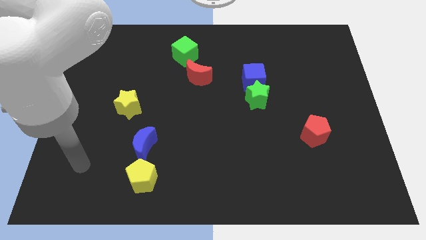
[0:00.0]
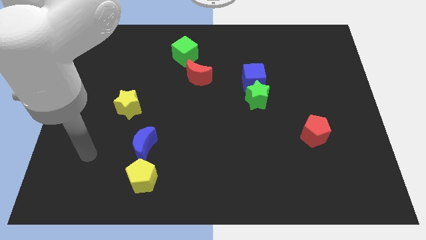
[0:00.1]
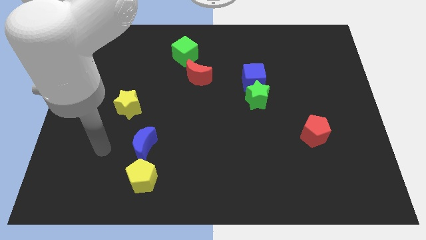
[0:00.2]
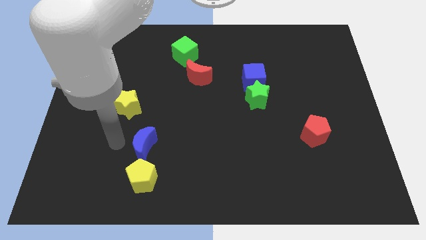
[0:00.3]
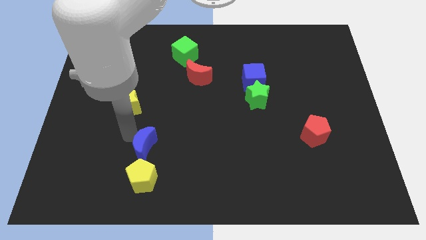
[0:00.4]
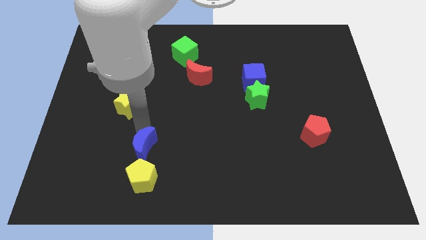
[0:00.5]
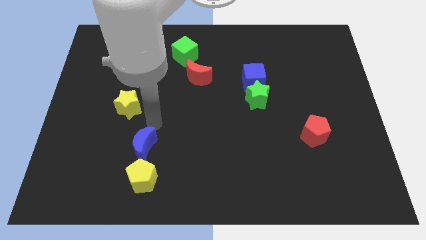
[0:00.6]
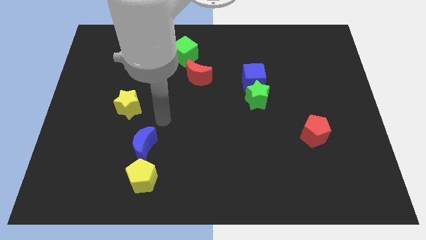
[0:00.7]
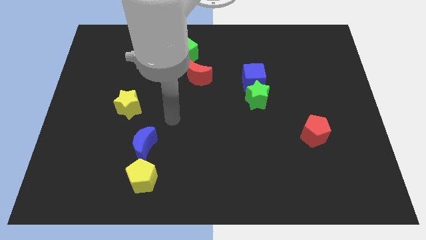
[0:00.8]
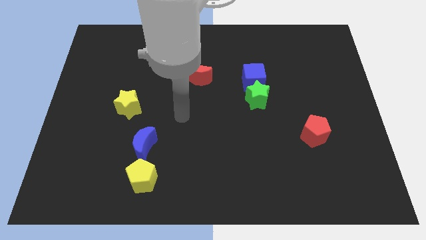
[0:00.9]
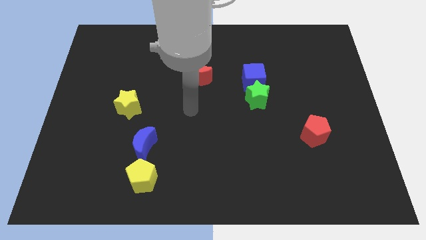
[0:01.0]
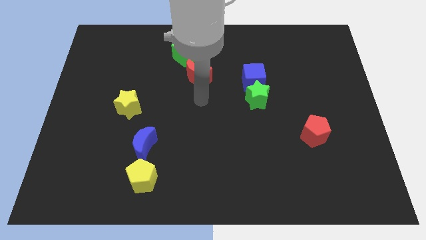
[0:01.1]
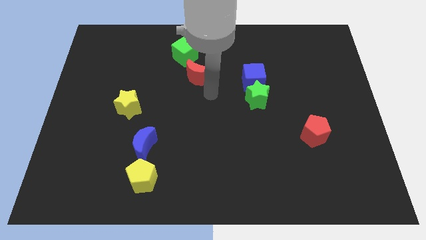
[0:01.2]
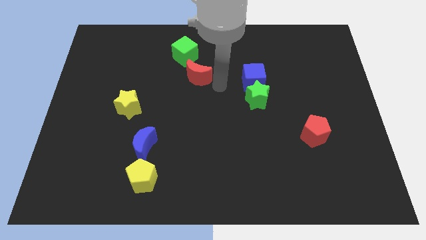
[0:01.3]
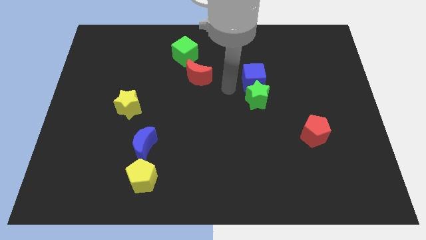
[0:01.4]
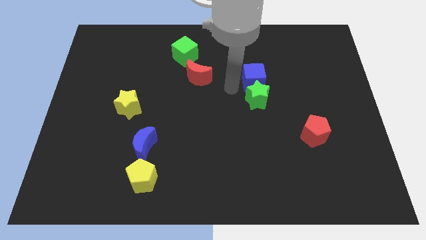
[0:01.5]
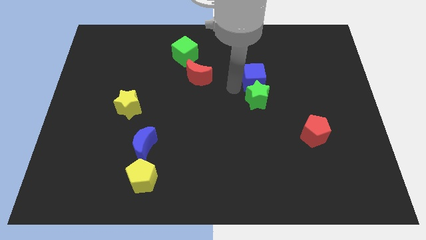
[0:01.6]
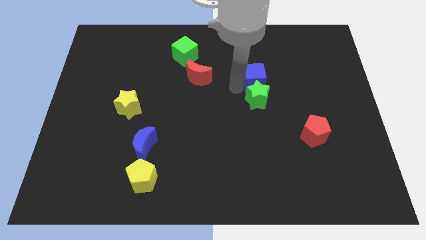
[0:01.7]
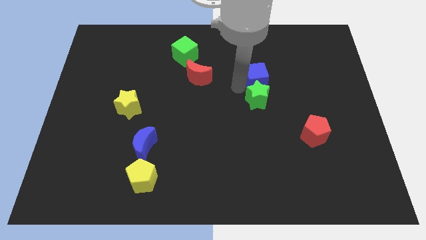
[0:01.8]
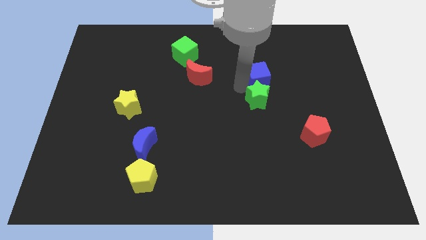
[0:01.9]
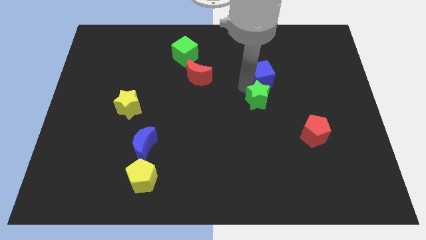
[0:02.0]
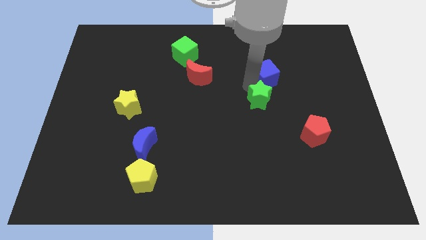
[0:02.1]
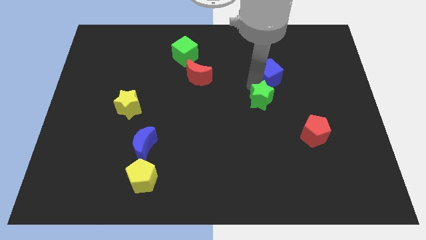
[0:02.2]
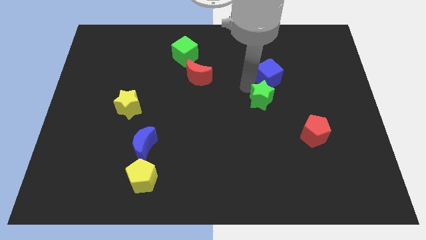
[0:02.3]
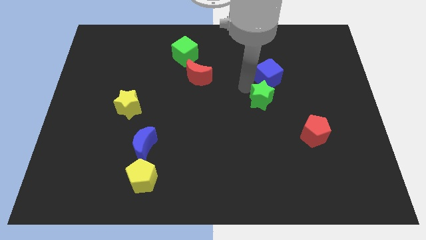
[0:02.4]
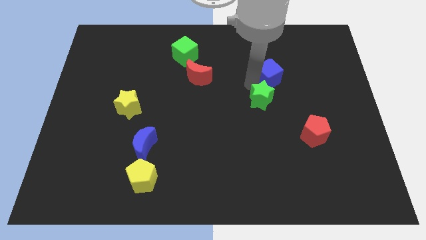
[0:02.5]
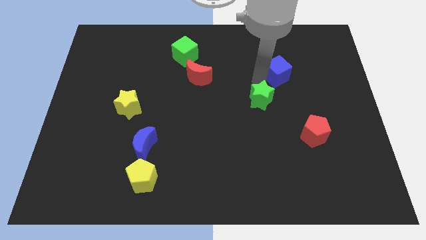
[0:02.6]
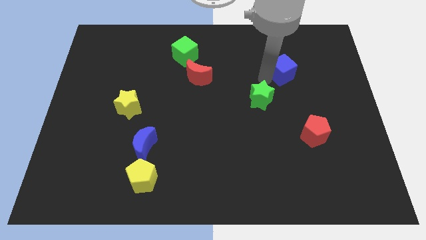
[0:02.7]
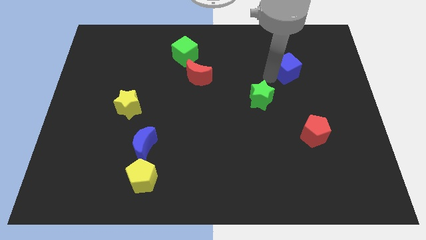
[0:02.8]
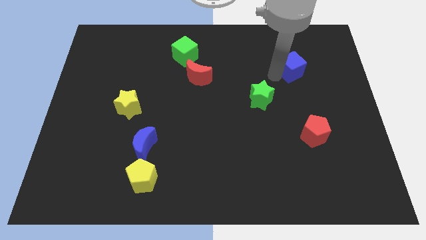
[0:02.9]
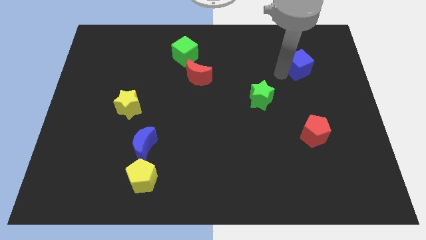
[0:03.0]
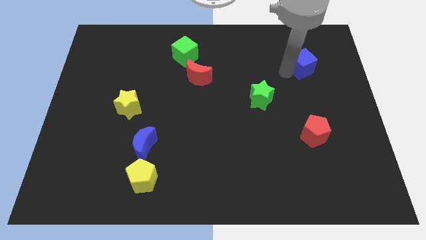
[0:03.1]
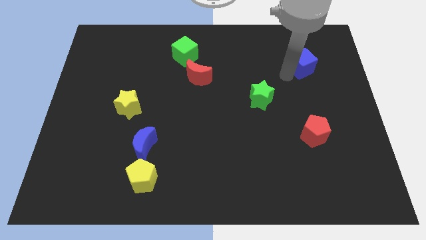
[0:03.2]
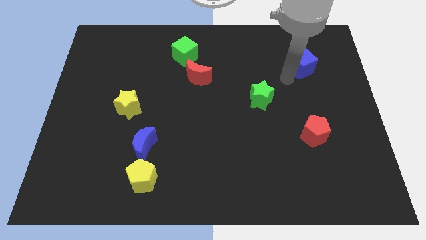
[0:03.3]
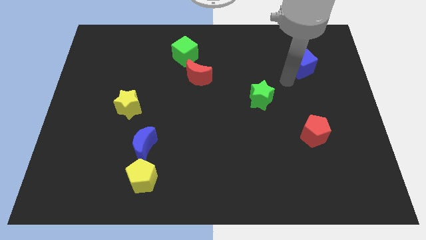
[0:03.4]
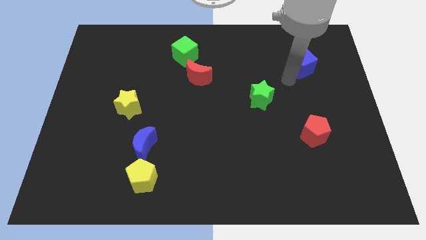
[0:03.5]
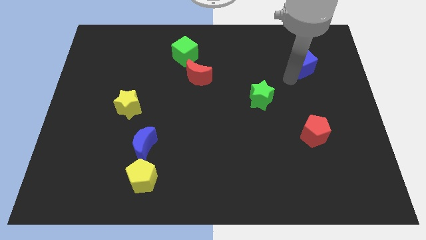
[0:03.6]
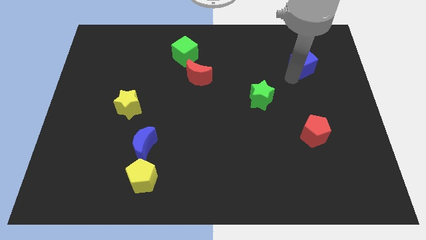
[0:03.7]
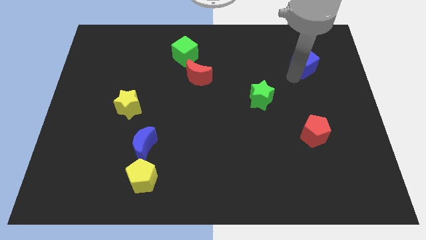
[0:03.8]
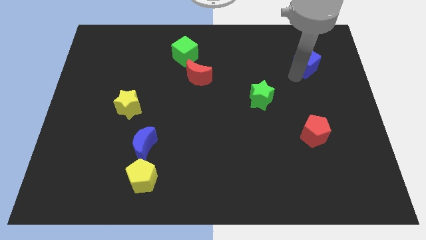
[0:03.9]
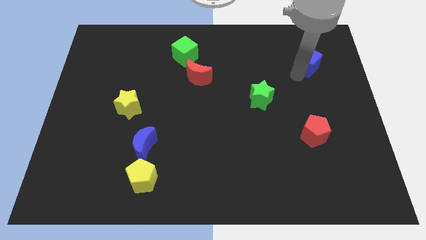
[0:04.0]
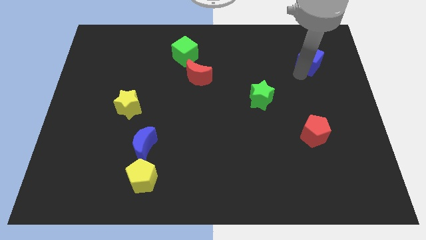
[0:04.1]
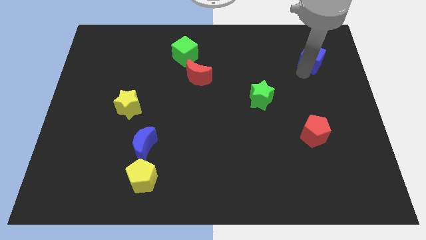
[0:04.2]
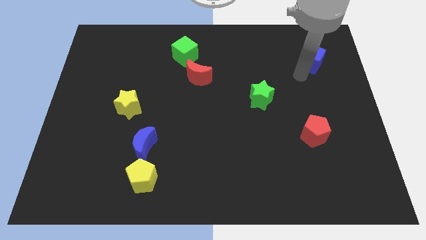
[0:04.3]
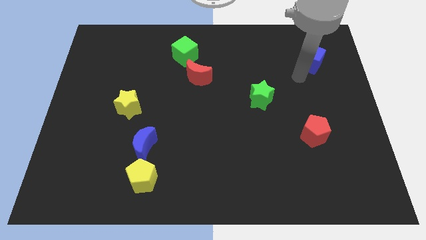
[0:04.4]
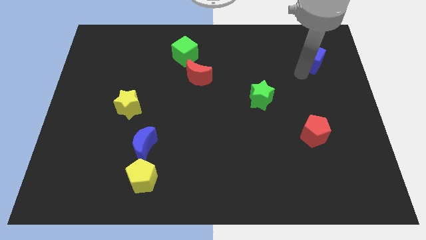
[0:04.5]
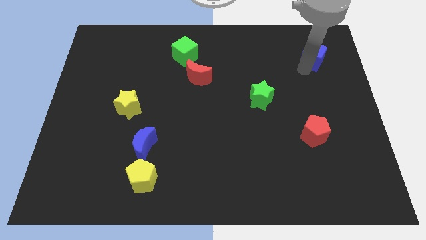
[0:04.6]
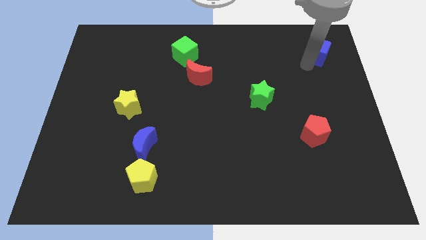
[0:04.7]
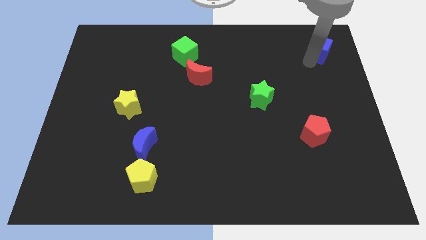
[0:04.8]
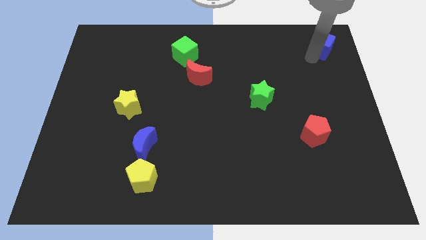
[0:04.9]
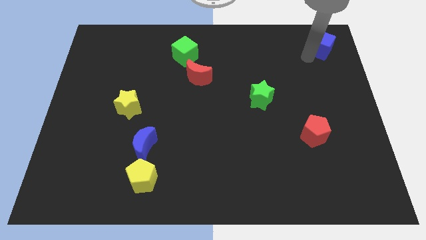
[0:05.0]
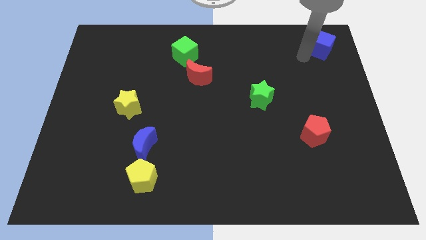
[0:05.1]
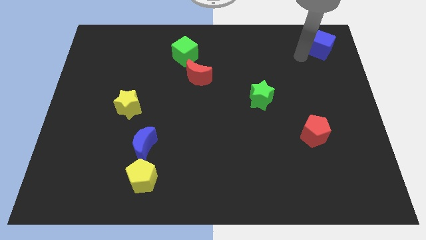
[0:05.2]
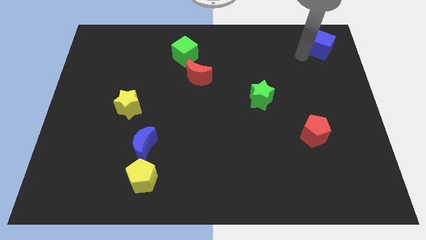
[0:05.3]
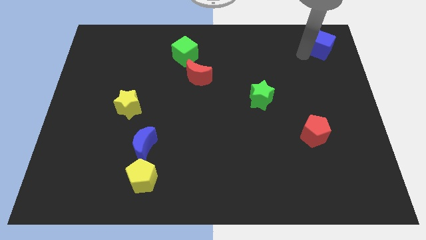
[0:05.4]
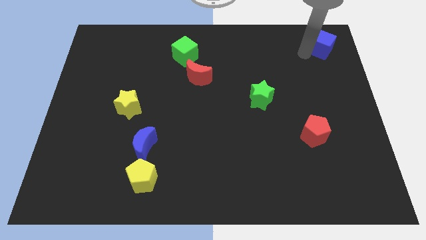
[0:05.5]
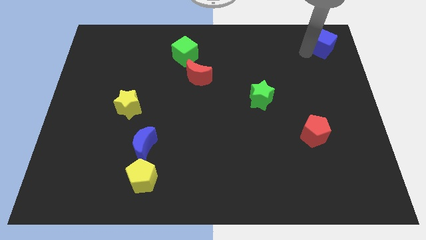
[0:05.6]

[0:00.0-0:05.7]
slide the blue cube to the top right corner

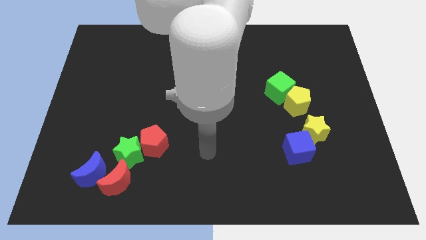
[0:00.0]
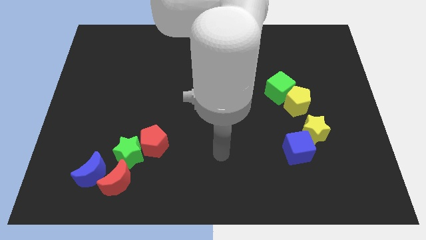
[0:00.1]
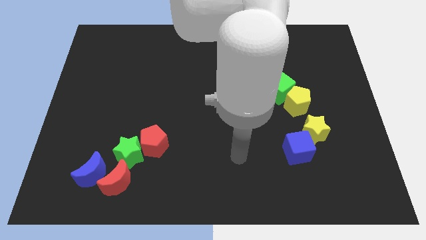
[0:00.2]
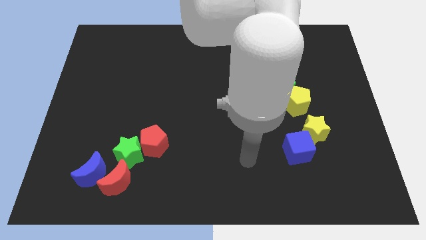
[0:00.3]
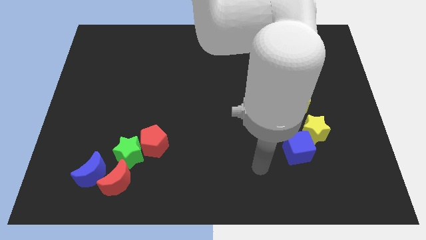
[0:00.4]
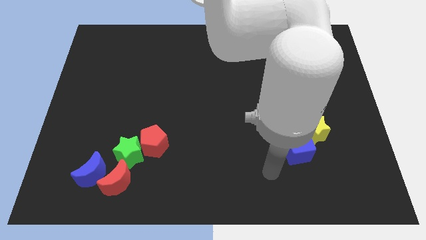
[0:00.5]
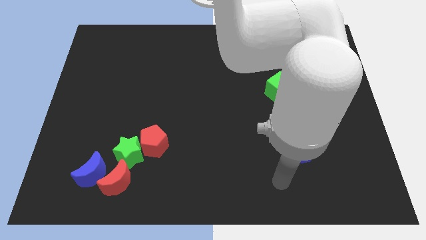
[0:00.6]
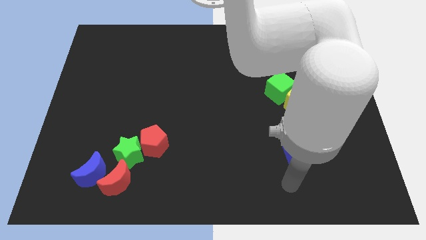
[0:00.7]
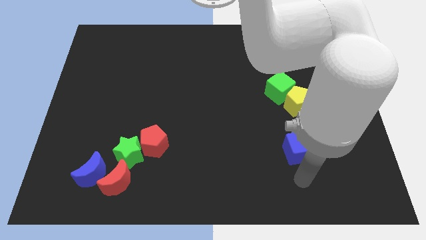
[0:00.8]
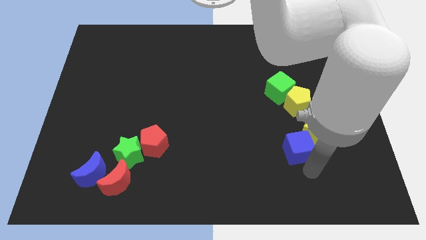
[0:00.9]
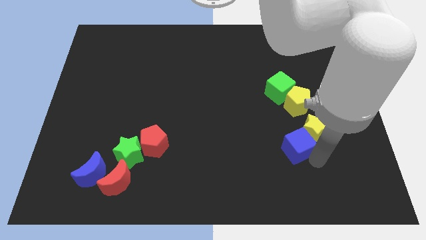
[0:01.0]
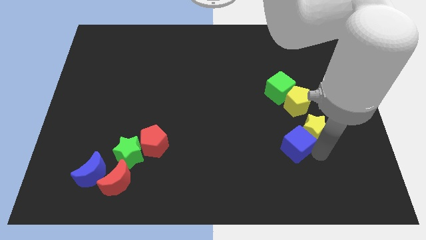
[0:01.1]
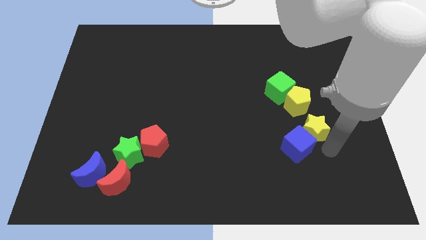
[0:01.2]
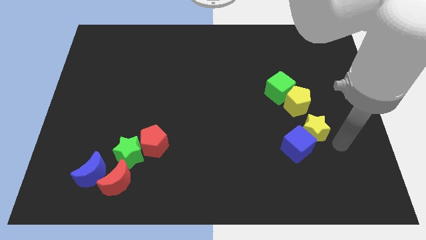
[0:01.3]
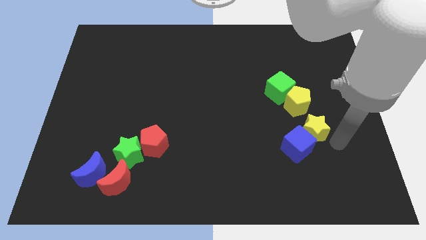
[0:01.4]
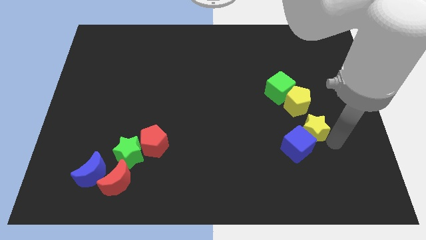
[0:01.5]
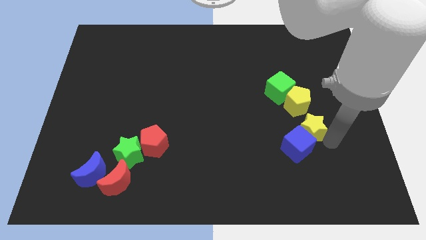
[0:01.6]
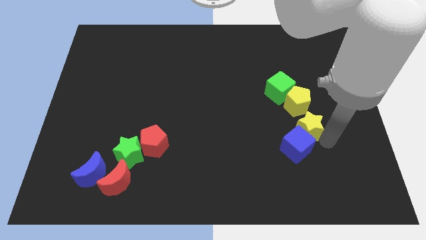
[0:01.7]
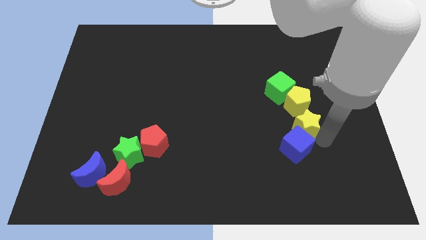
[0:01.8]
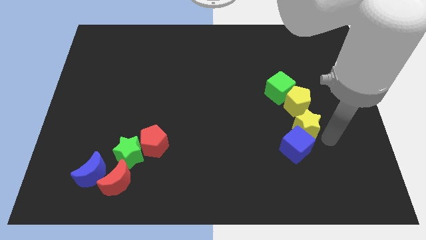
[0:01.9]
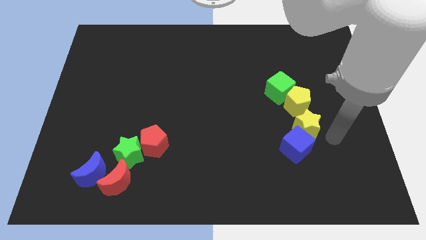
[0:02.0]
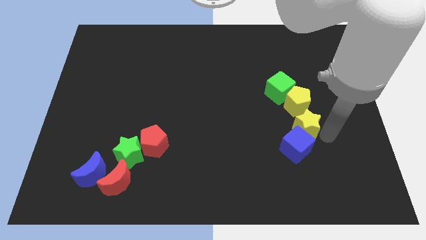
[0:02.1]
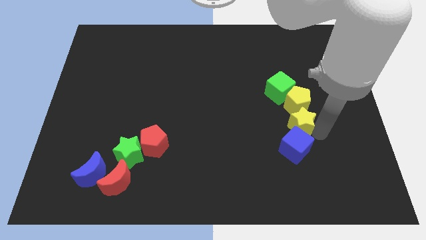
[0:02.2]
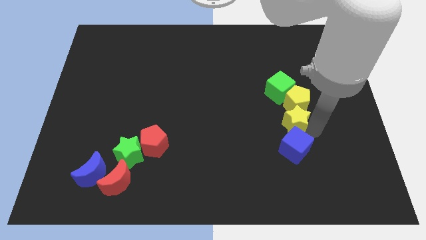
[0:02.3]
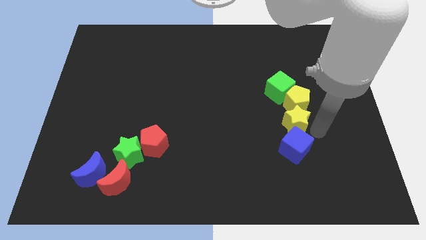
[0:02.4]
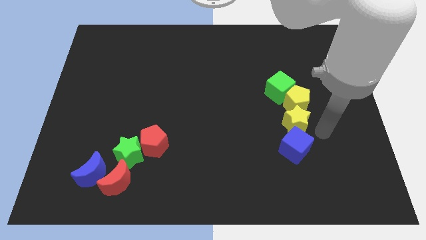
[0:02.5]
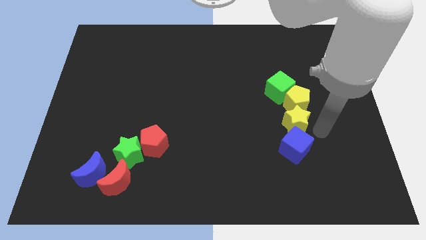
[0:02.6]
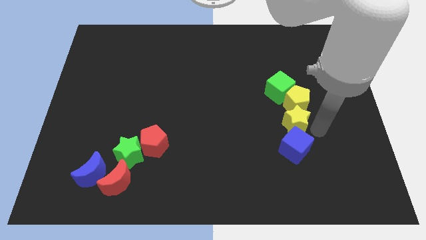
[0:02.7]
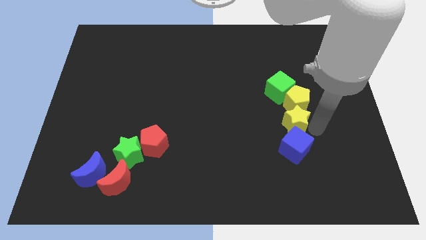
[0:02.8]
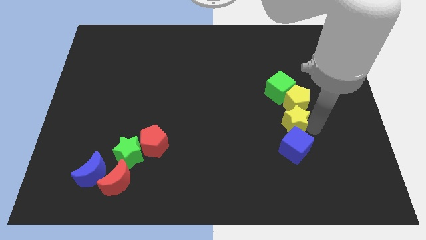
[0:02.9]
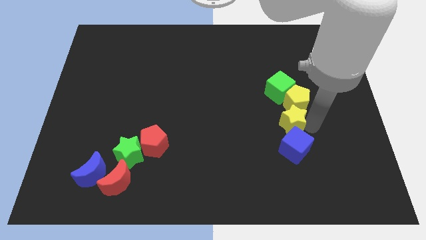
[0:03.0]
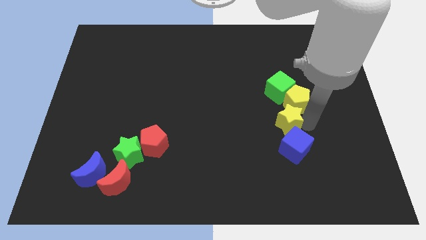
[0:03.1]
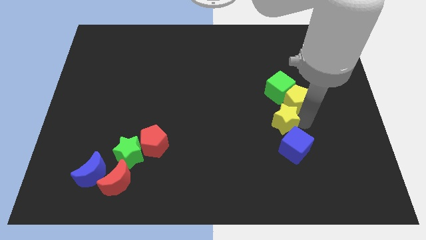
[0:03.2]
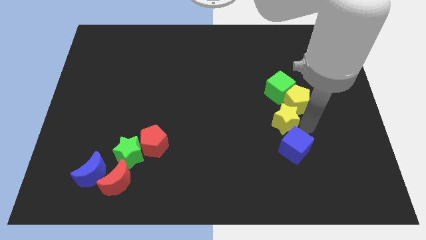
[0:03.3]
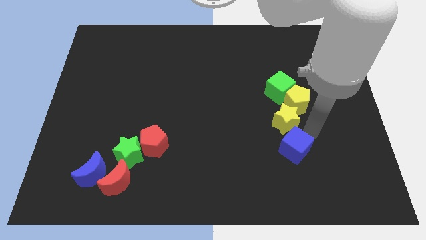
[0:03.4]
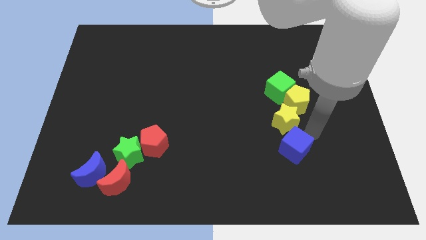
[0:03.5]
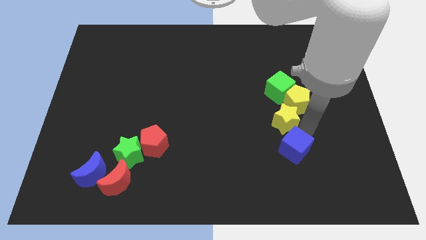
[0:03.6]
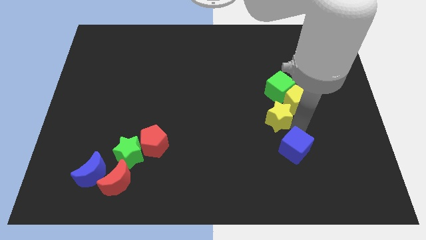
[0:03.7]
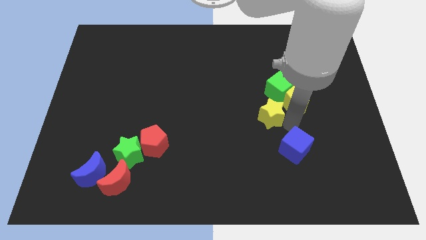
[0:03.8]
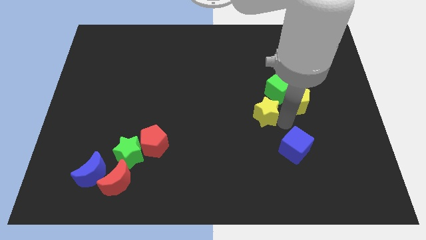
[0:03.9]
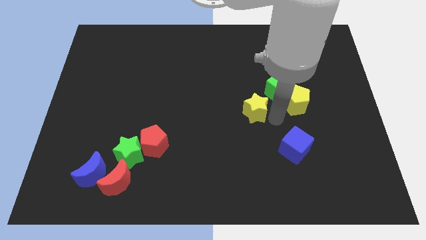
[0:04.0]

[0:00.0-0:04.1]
push the yellow star to the center
